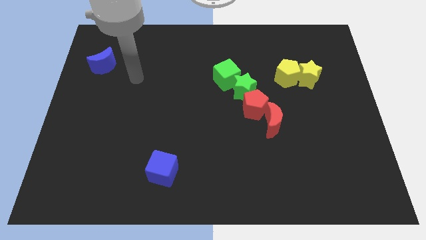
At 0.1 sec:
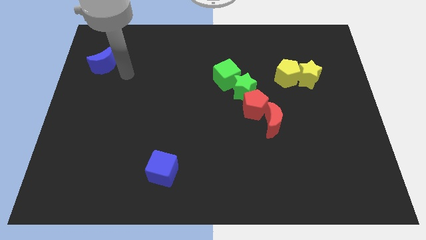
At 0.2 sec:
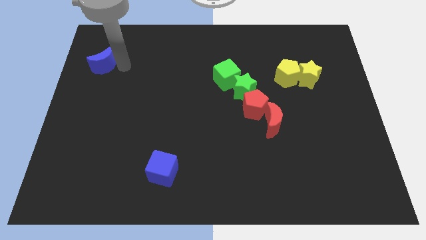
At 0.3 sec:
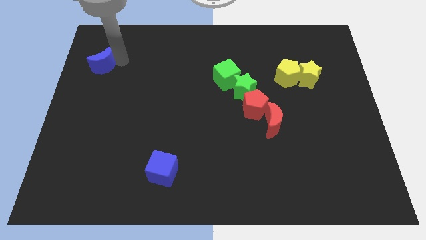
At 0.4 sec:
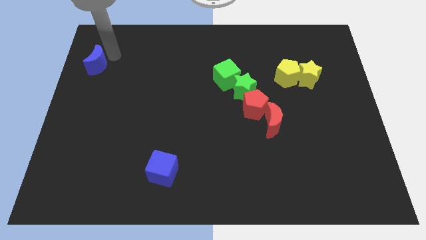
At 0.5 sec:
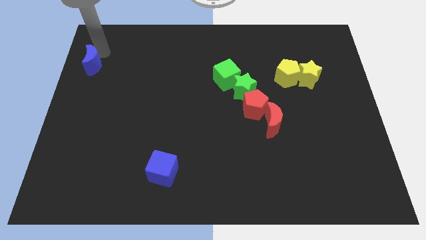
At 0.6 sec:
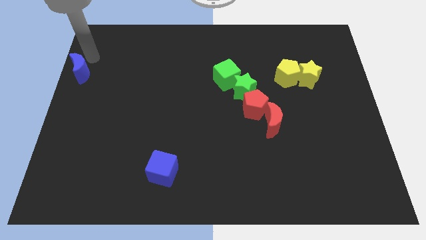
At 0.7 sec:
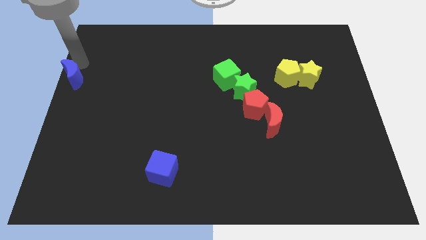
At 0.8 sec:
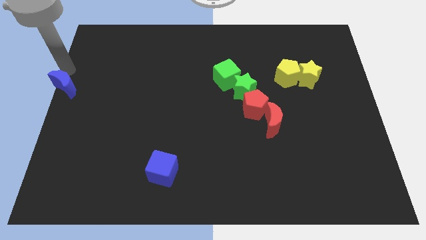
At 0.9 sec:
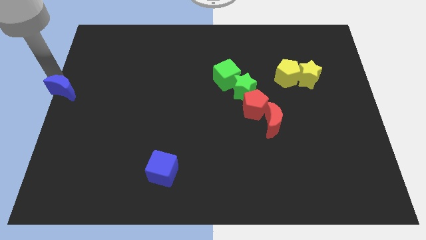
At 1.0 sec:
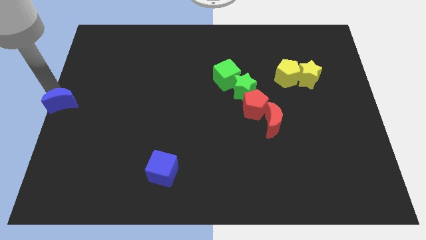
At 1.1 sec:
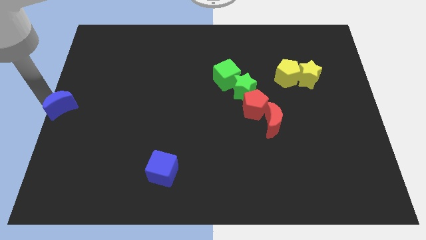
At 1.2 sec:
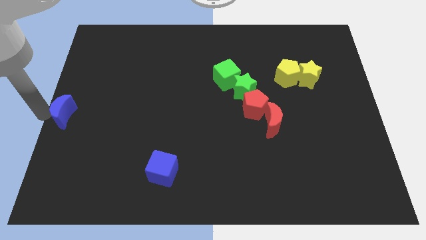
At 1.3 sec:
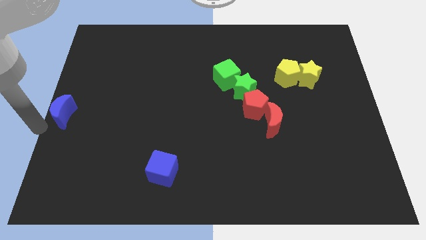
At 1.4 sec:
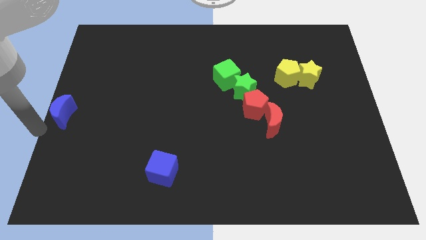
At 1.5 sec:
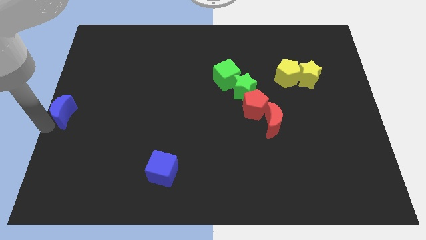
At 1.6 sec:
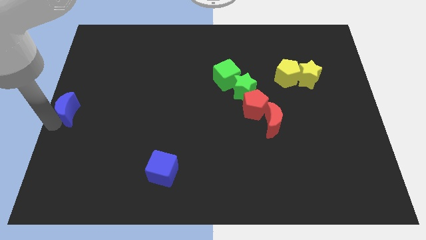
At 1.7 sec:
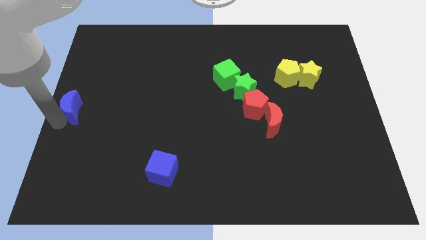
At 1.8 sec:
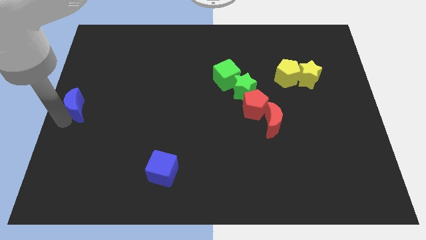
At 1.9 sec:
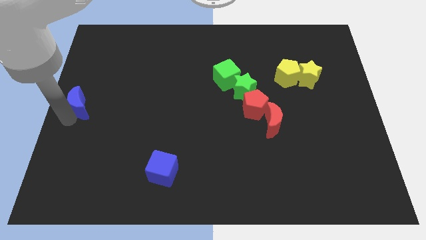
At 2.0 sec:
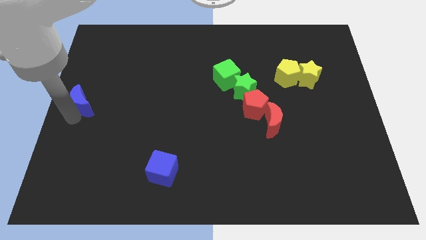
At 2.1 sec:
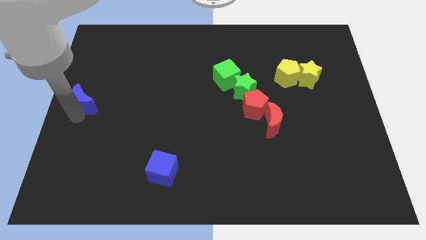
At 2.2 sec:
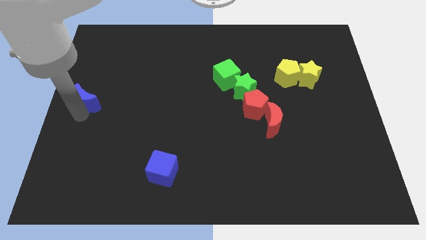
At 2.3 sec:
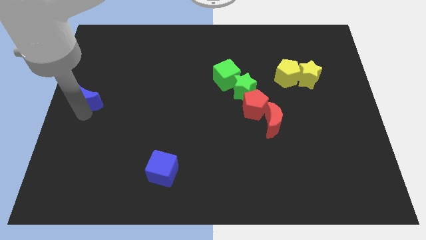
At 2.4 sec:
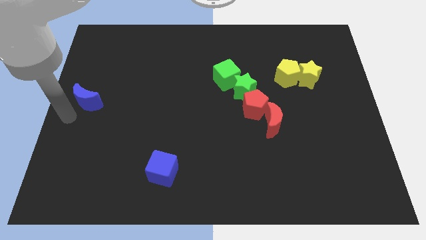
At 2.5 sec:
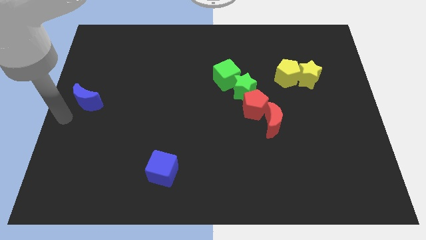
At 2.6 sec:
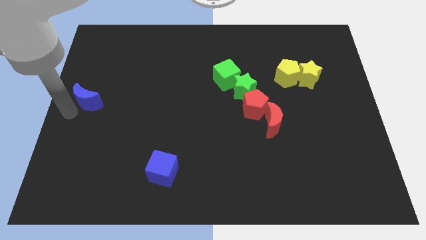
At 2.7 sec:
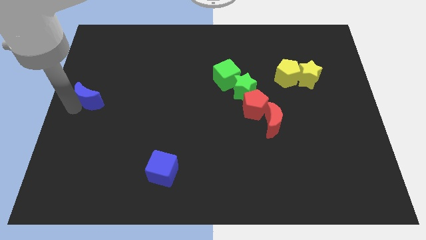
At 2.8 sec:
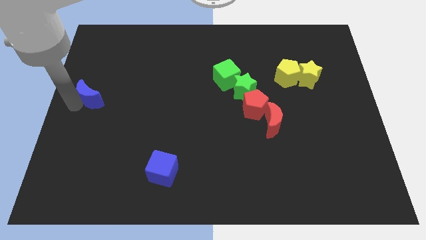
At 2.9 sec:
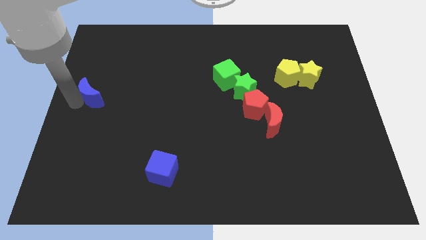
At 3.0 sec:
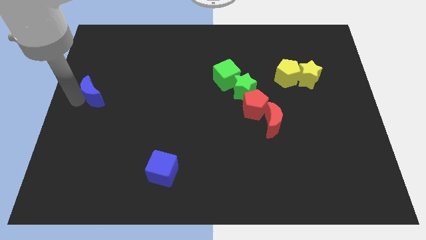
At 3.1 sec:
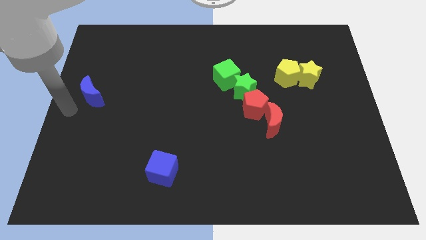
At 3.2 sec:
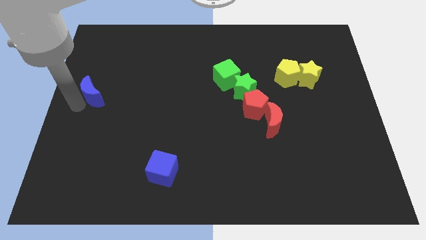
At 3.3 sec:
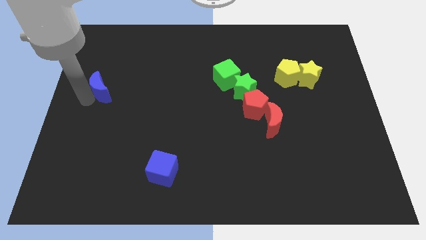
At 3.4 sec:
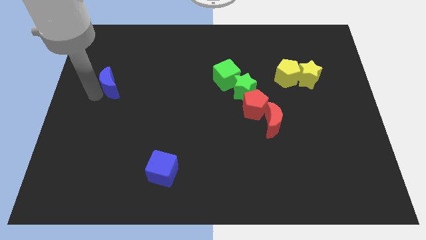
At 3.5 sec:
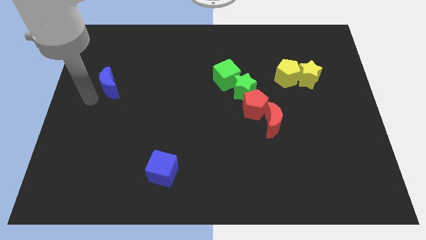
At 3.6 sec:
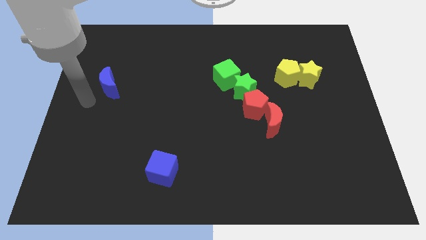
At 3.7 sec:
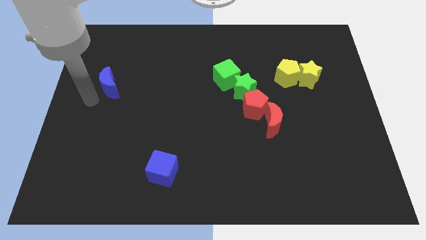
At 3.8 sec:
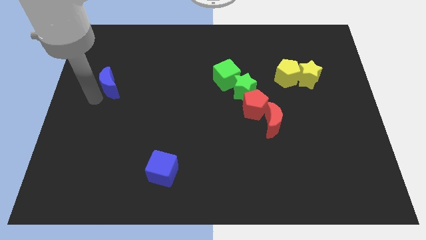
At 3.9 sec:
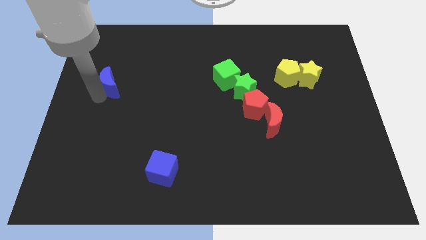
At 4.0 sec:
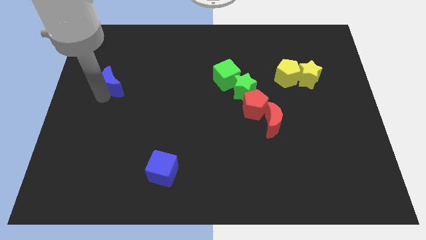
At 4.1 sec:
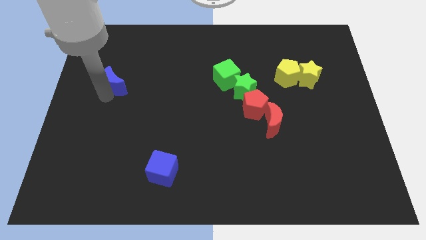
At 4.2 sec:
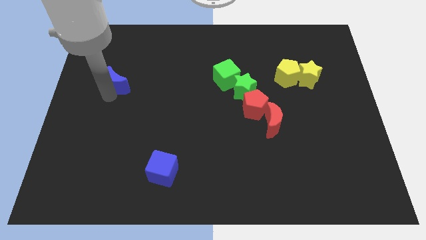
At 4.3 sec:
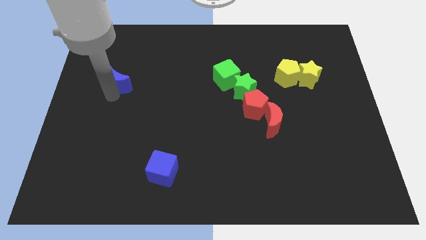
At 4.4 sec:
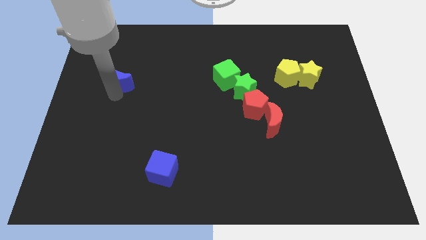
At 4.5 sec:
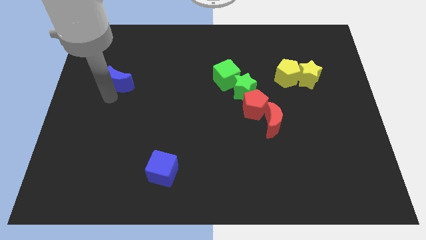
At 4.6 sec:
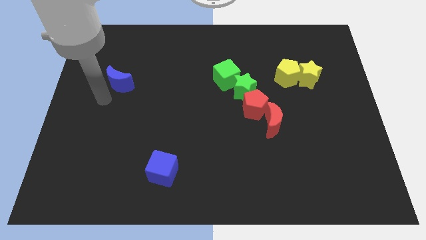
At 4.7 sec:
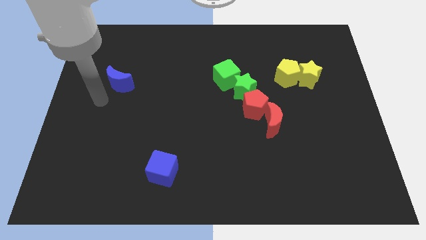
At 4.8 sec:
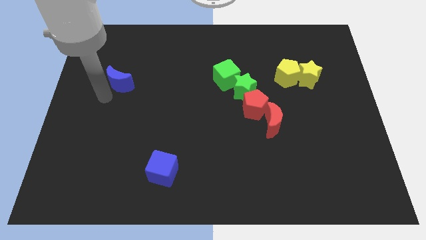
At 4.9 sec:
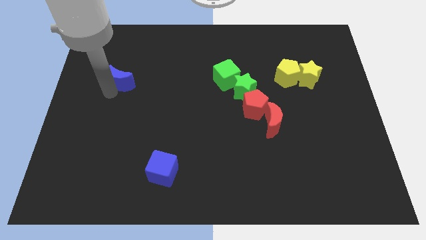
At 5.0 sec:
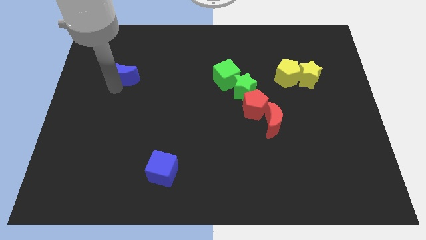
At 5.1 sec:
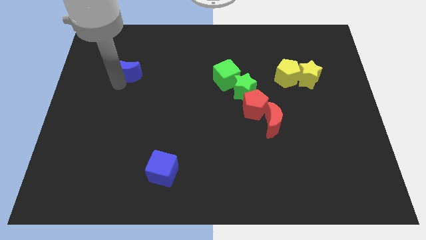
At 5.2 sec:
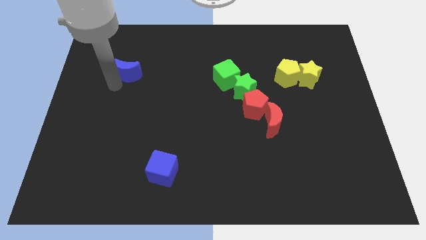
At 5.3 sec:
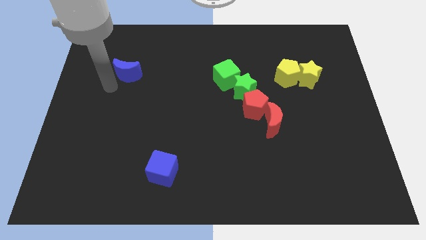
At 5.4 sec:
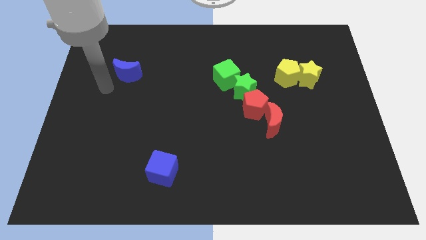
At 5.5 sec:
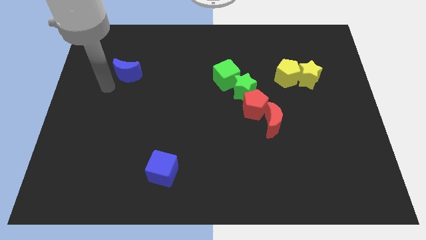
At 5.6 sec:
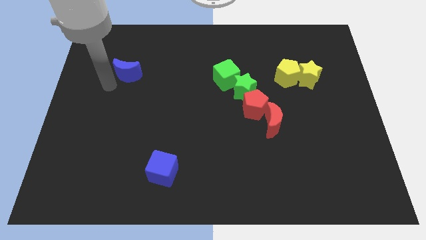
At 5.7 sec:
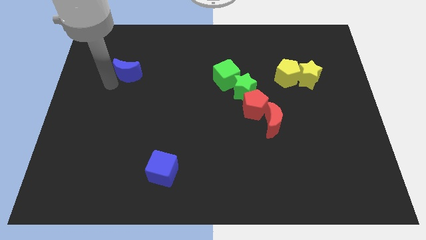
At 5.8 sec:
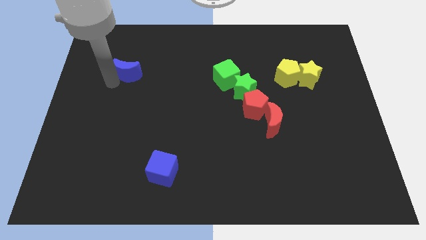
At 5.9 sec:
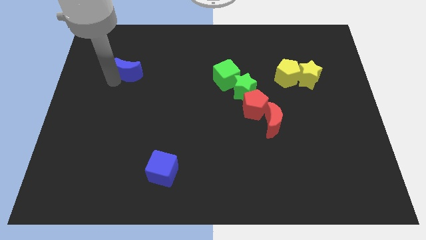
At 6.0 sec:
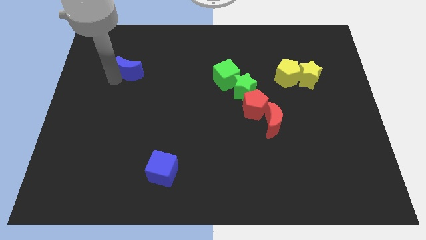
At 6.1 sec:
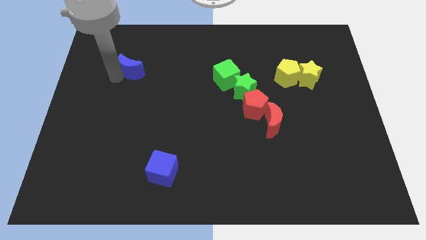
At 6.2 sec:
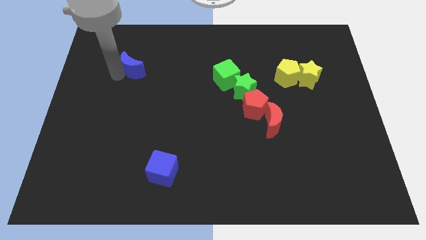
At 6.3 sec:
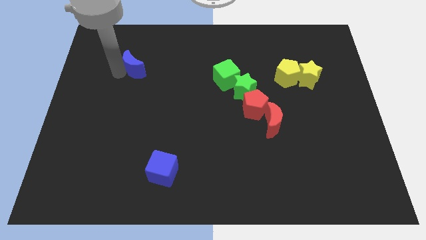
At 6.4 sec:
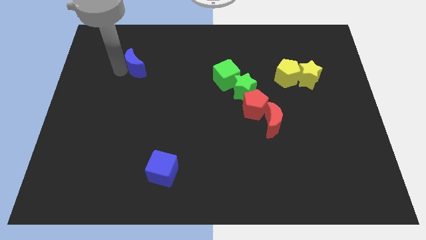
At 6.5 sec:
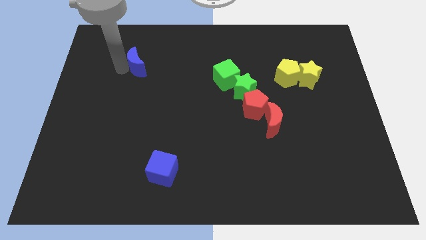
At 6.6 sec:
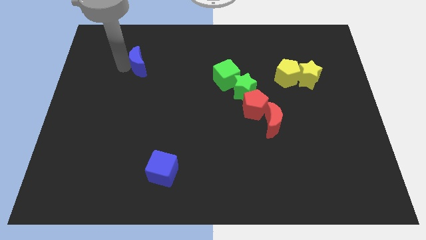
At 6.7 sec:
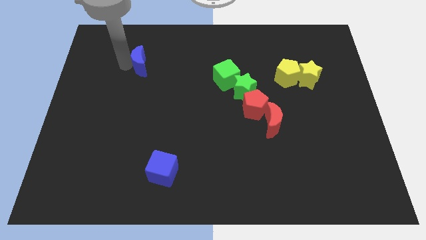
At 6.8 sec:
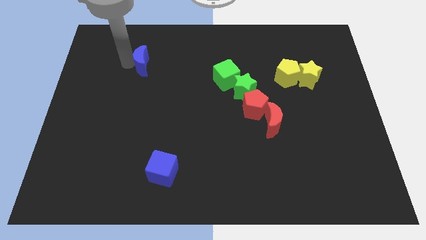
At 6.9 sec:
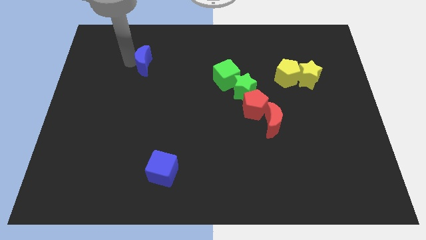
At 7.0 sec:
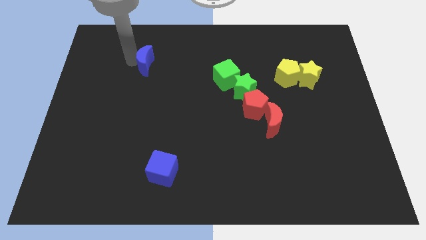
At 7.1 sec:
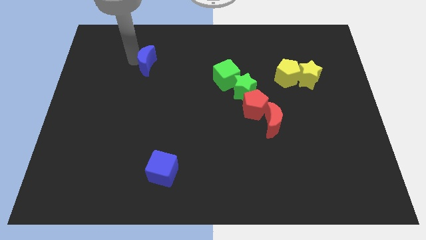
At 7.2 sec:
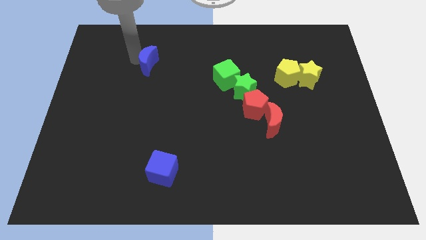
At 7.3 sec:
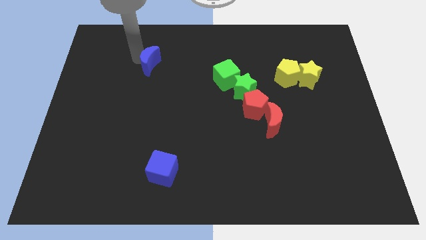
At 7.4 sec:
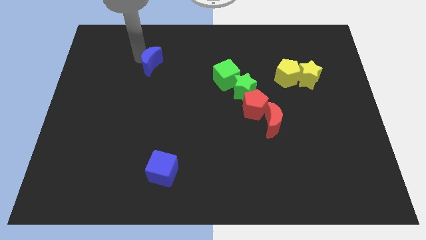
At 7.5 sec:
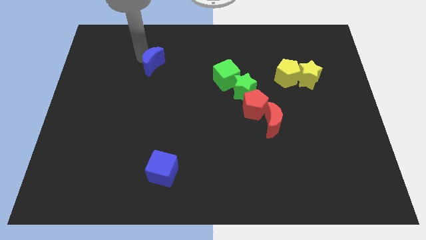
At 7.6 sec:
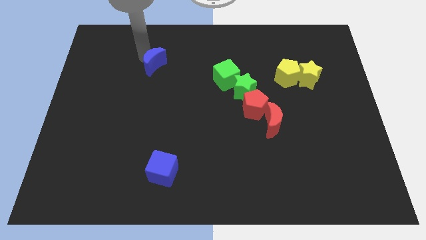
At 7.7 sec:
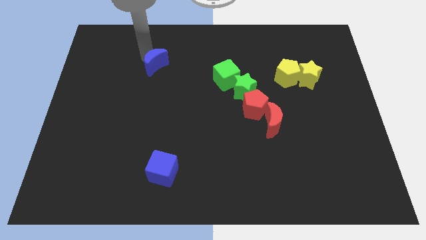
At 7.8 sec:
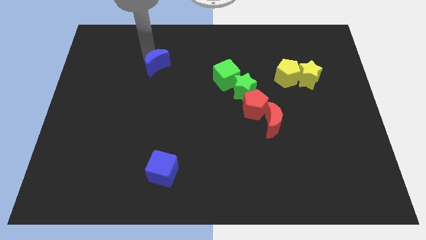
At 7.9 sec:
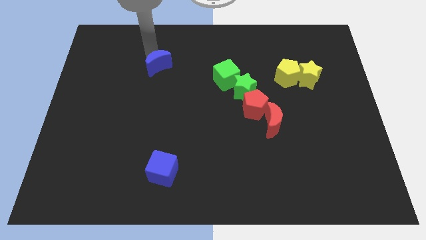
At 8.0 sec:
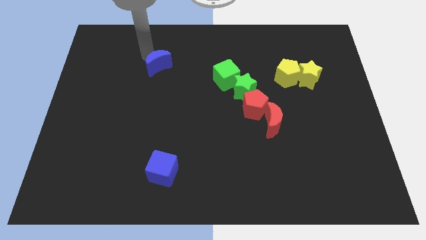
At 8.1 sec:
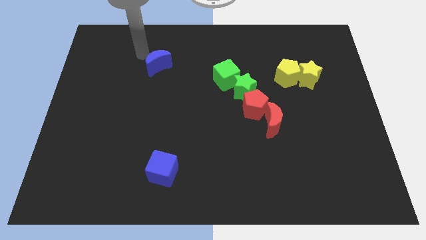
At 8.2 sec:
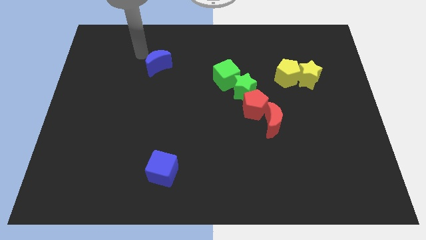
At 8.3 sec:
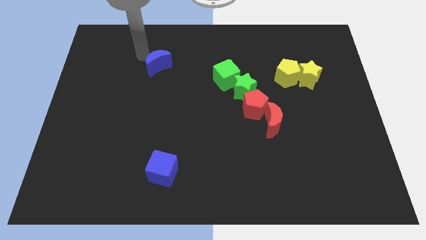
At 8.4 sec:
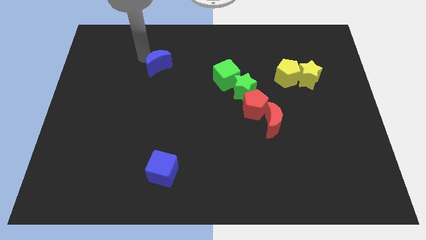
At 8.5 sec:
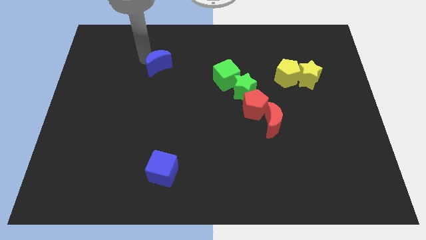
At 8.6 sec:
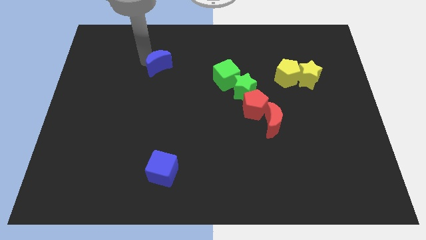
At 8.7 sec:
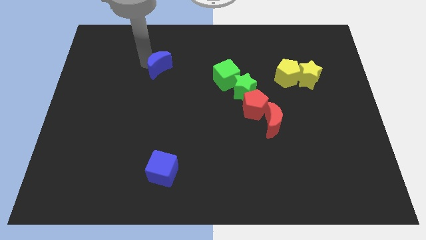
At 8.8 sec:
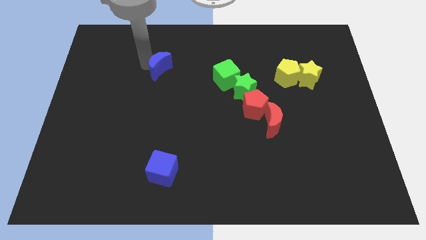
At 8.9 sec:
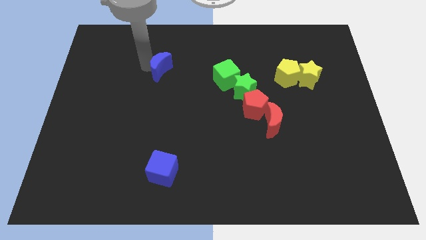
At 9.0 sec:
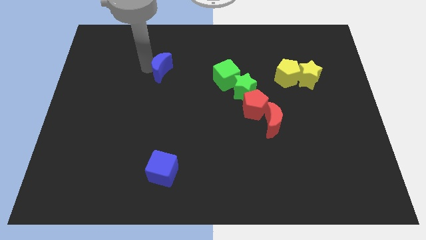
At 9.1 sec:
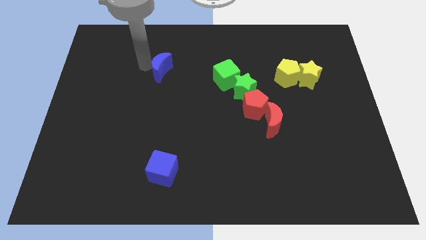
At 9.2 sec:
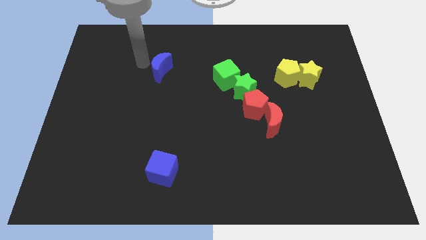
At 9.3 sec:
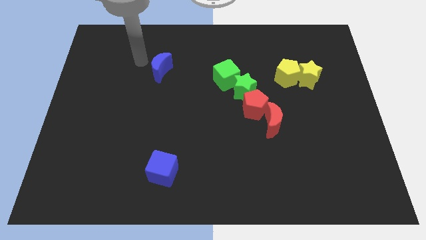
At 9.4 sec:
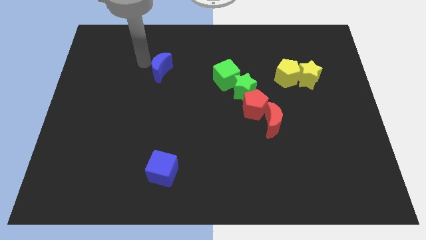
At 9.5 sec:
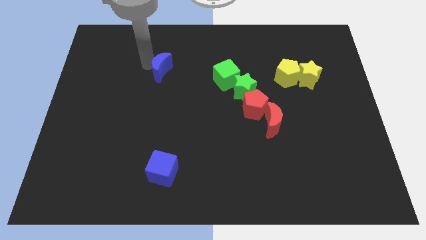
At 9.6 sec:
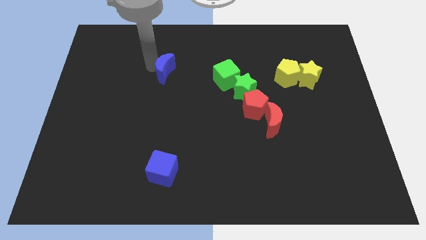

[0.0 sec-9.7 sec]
move the blue moon left of the green cube
